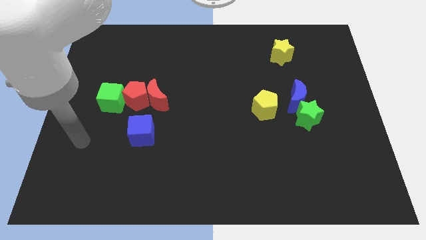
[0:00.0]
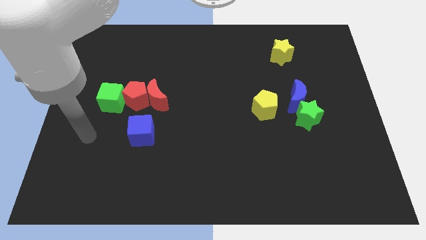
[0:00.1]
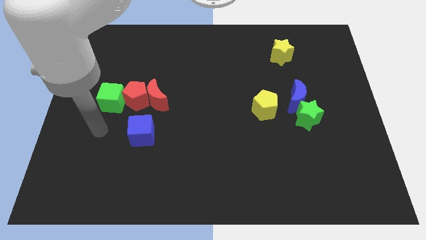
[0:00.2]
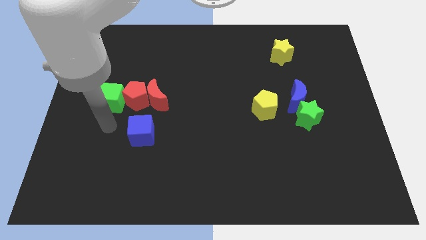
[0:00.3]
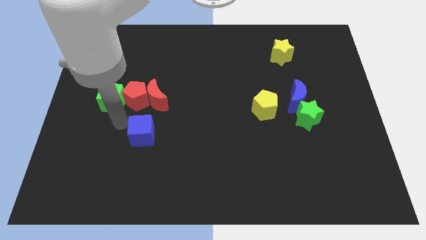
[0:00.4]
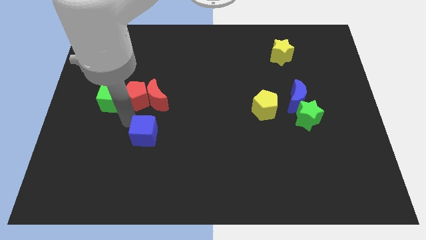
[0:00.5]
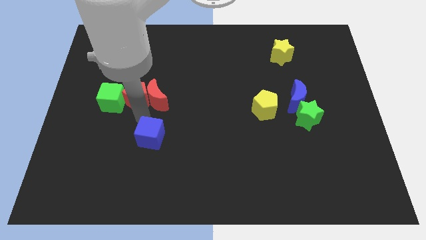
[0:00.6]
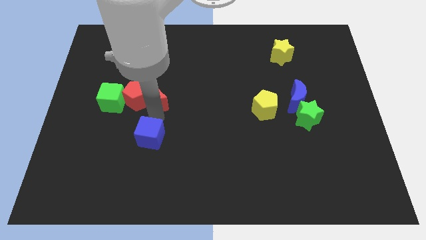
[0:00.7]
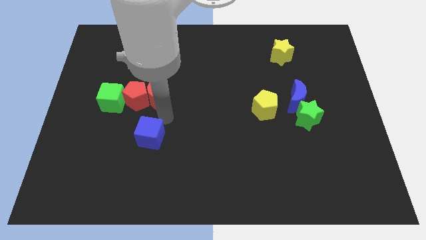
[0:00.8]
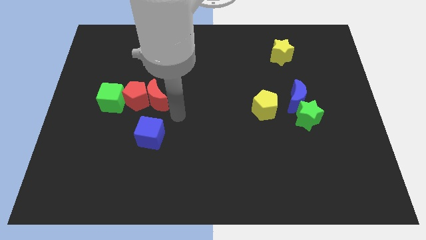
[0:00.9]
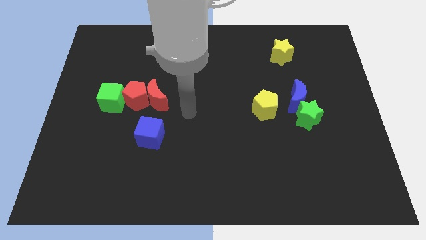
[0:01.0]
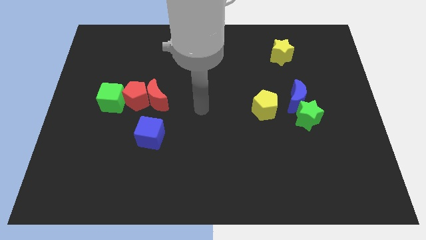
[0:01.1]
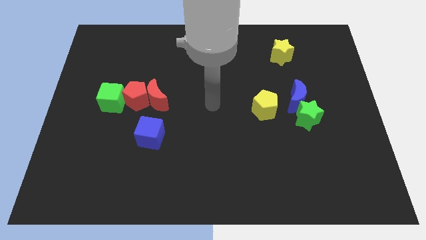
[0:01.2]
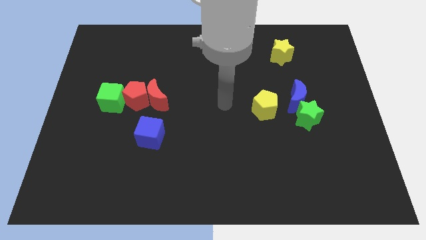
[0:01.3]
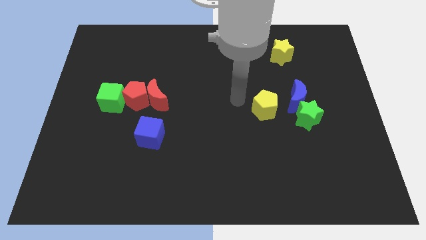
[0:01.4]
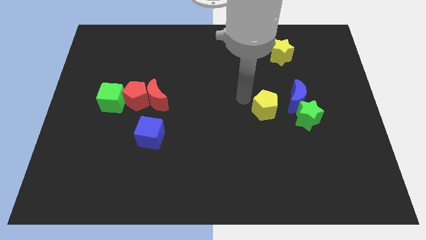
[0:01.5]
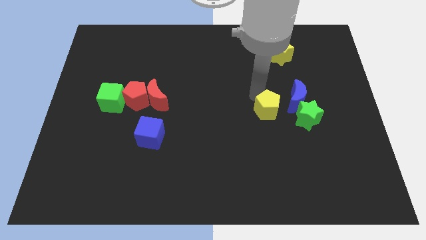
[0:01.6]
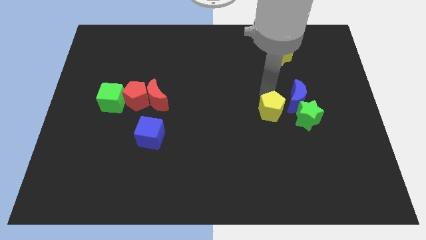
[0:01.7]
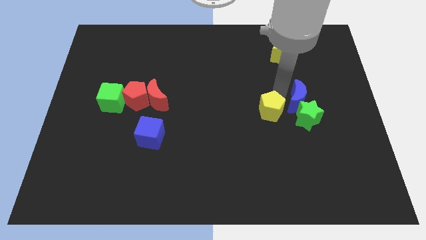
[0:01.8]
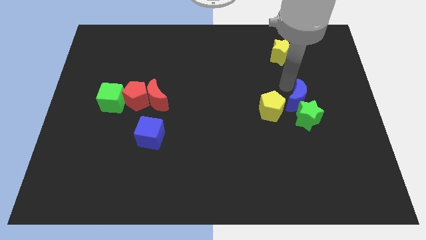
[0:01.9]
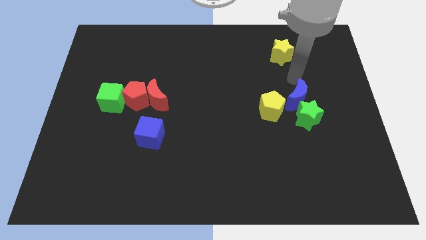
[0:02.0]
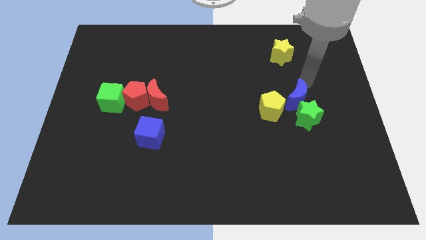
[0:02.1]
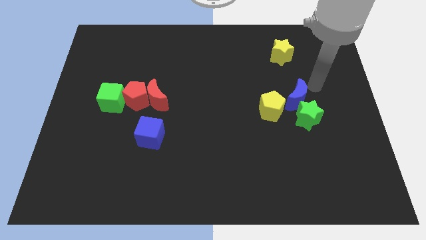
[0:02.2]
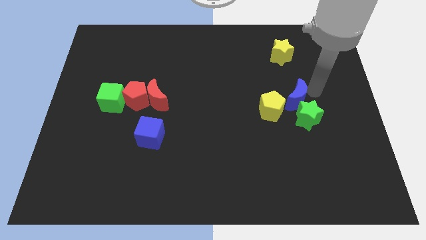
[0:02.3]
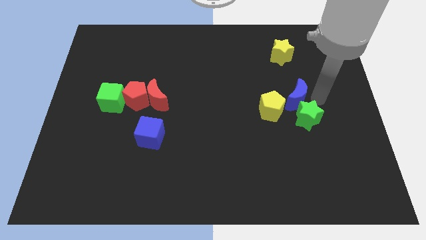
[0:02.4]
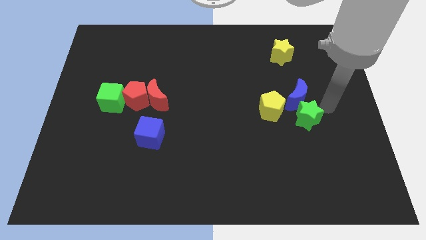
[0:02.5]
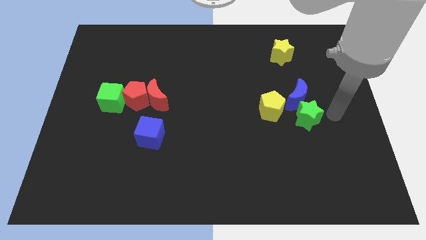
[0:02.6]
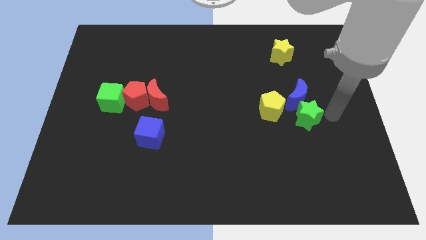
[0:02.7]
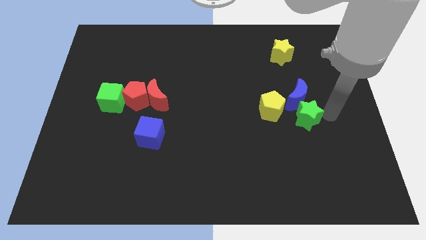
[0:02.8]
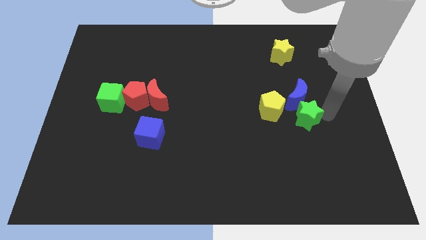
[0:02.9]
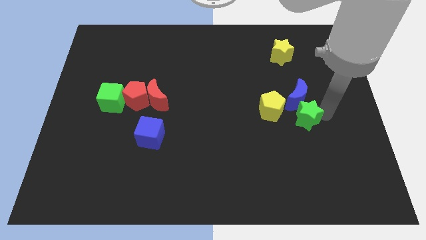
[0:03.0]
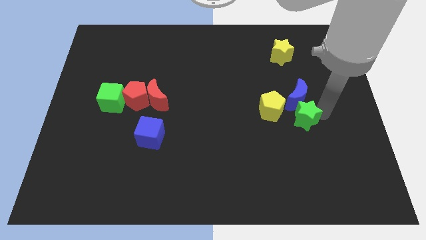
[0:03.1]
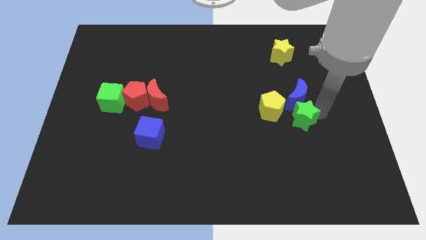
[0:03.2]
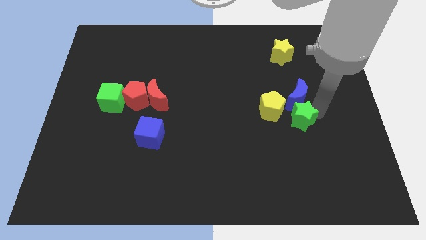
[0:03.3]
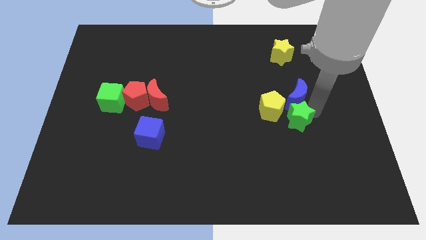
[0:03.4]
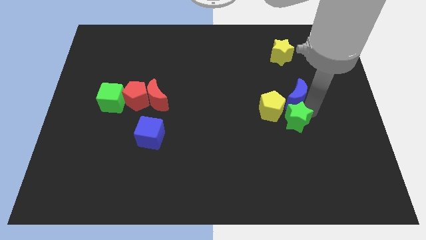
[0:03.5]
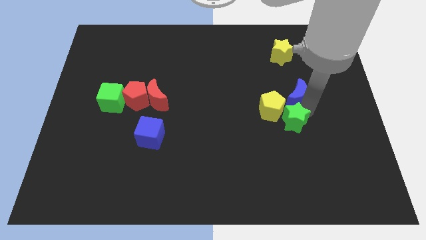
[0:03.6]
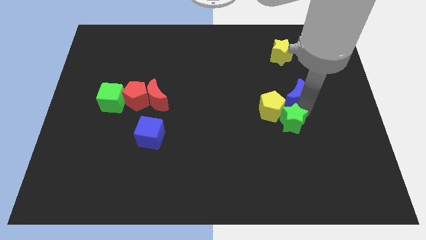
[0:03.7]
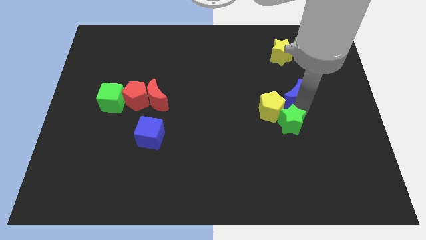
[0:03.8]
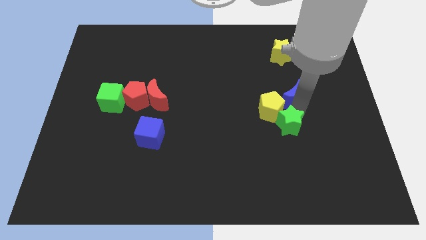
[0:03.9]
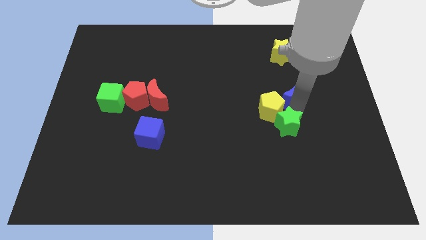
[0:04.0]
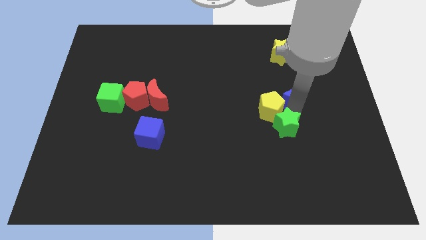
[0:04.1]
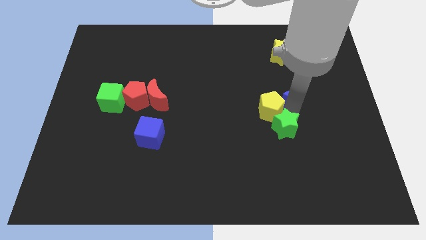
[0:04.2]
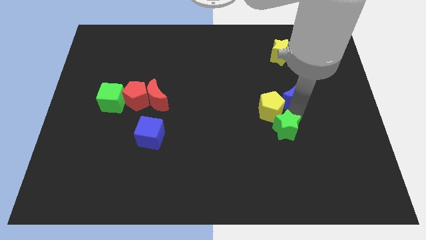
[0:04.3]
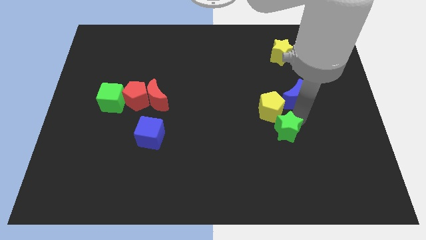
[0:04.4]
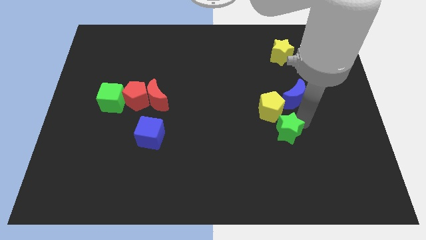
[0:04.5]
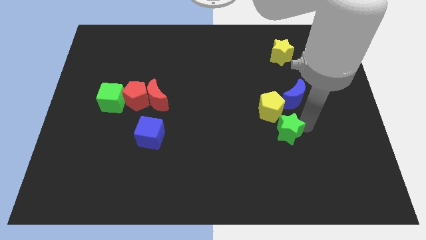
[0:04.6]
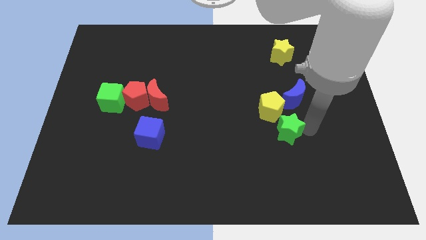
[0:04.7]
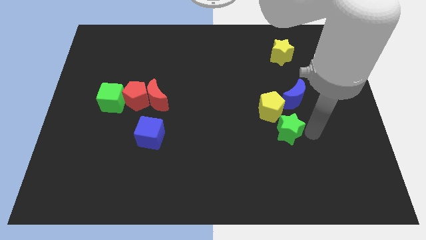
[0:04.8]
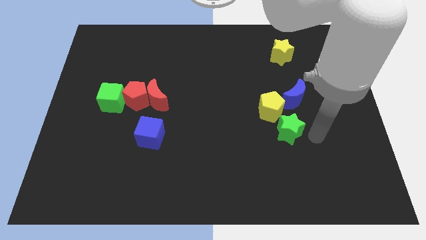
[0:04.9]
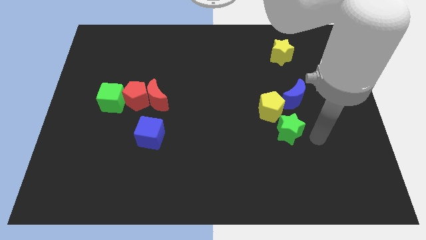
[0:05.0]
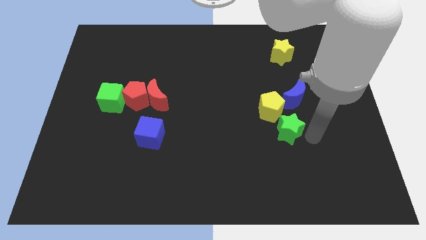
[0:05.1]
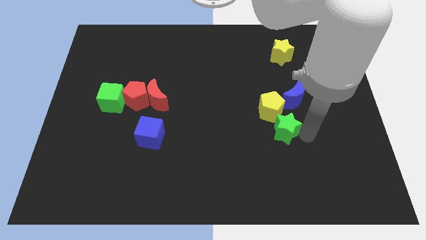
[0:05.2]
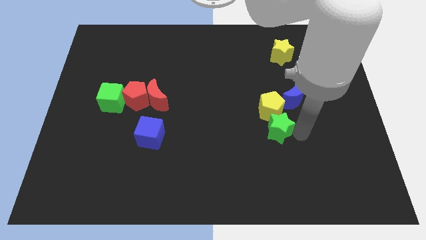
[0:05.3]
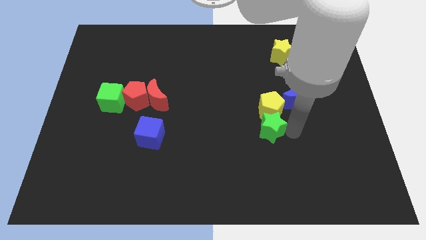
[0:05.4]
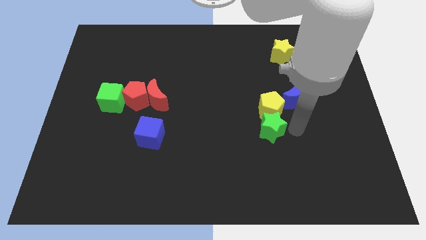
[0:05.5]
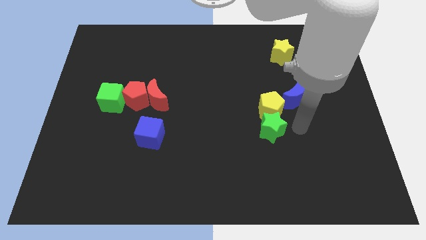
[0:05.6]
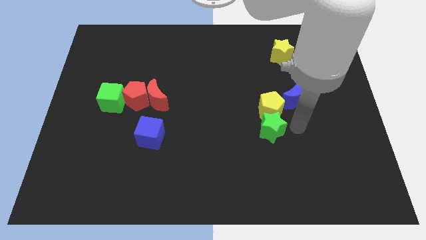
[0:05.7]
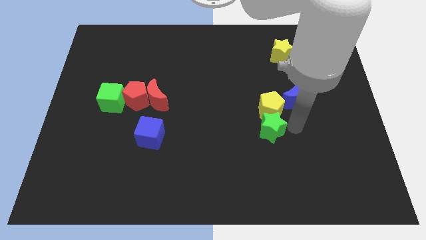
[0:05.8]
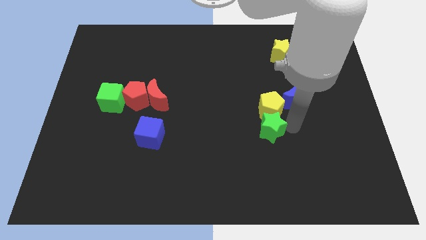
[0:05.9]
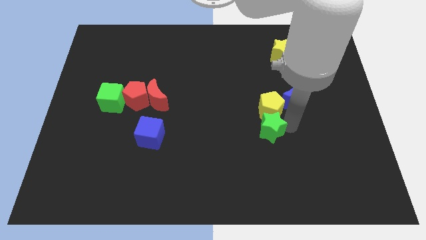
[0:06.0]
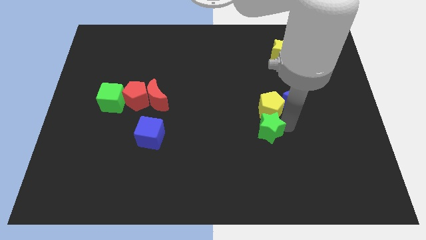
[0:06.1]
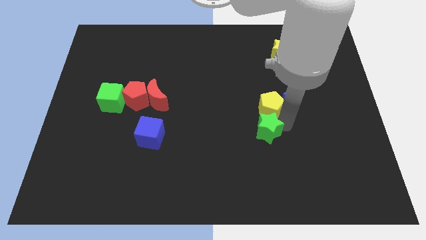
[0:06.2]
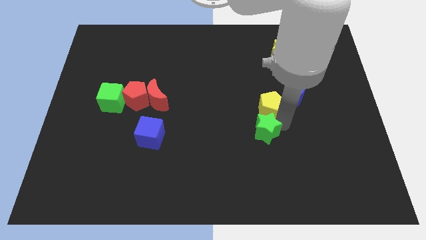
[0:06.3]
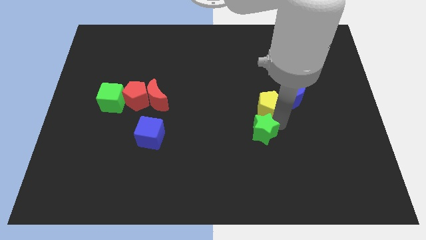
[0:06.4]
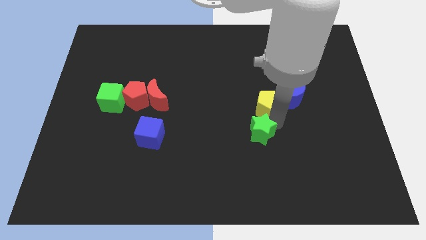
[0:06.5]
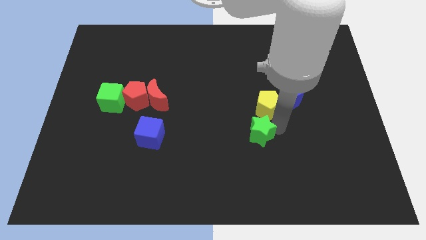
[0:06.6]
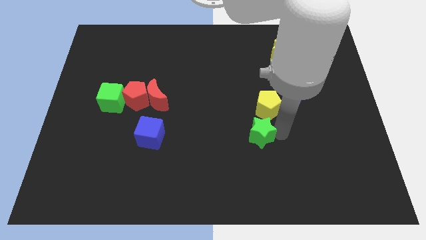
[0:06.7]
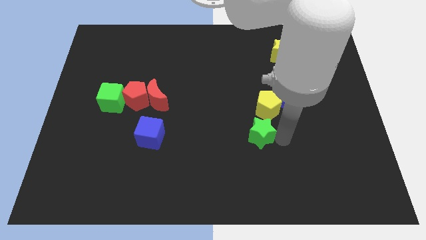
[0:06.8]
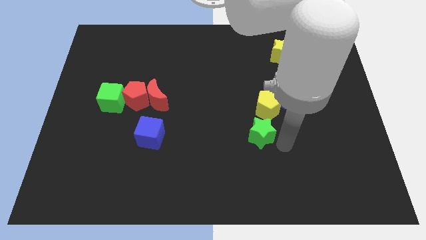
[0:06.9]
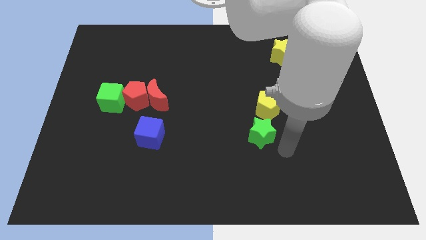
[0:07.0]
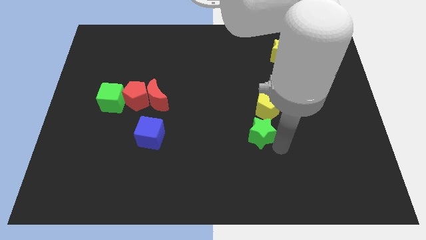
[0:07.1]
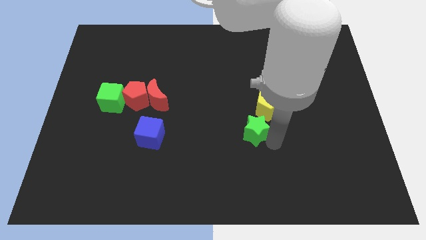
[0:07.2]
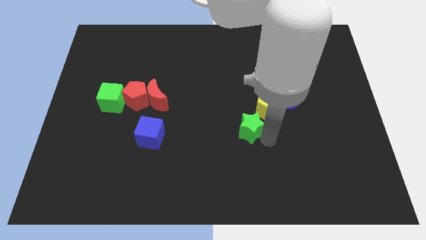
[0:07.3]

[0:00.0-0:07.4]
slide the green star to the middle of the board

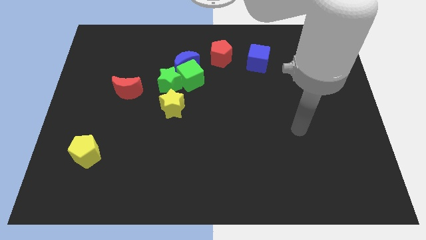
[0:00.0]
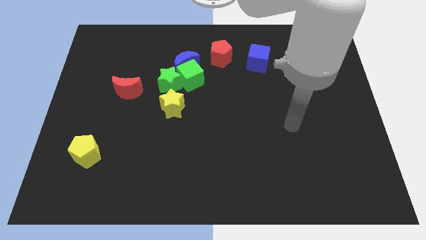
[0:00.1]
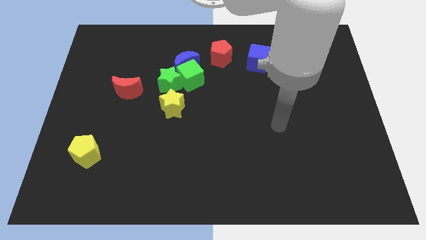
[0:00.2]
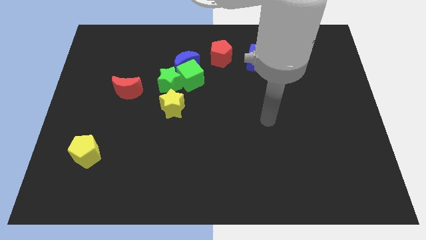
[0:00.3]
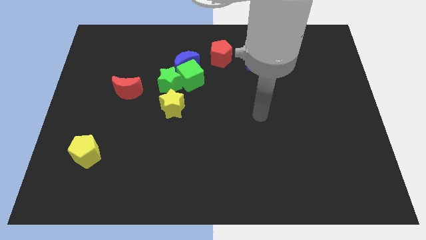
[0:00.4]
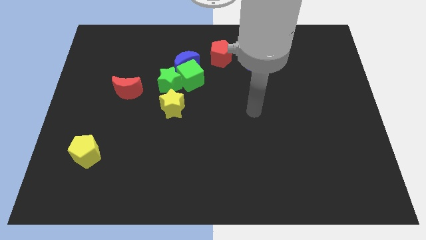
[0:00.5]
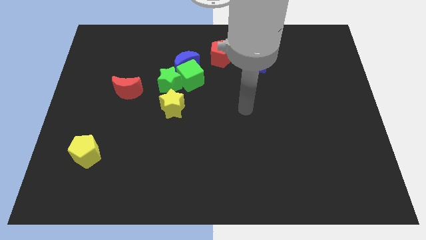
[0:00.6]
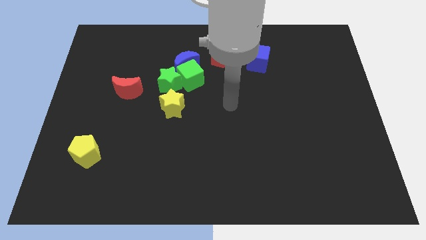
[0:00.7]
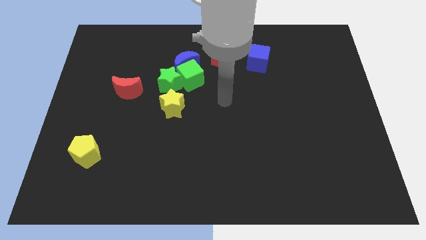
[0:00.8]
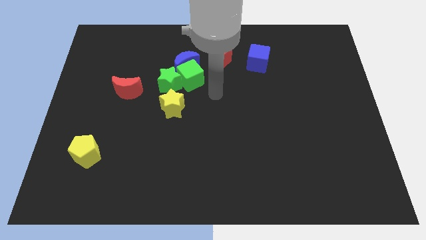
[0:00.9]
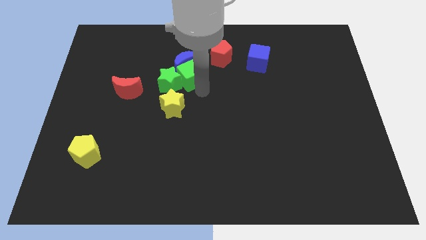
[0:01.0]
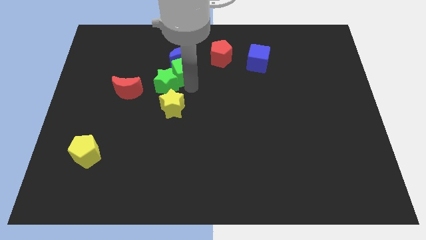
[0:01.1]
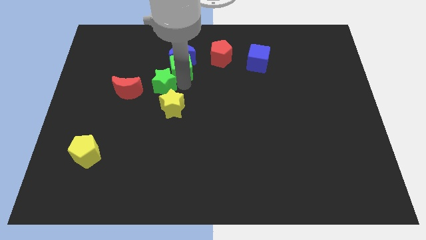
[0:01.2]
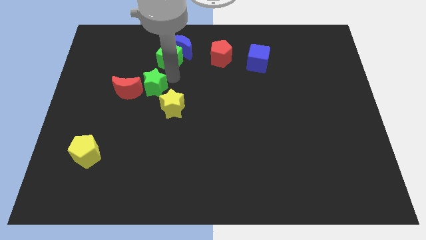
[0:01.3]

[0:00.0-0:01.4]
move the blue moon to the top
